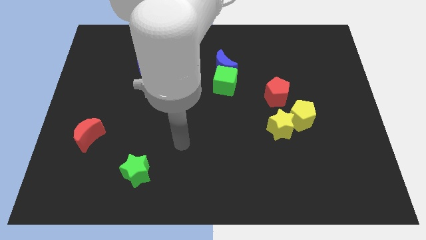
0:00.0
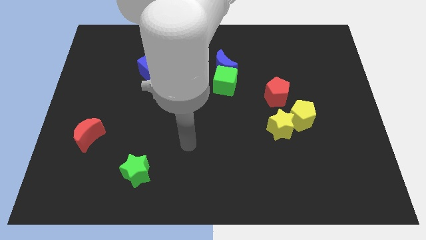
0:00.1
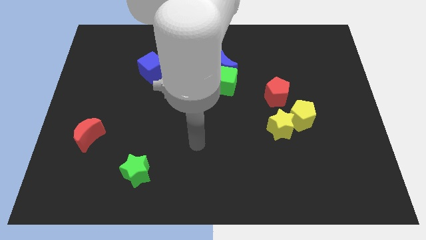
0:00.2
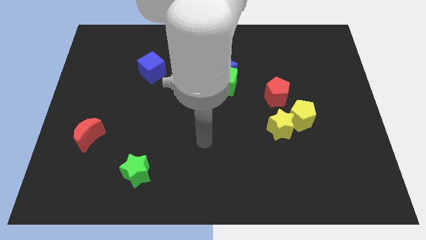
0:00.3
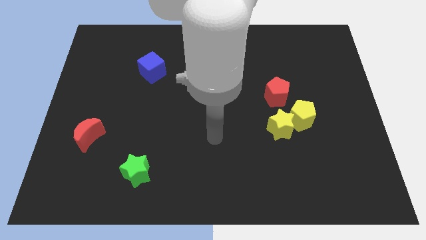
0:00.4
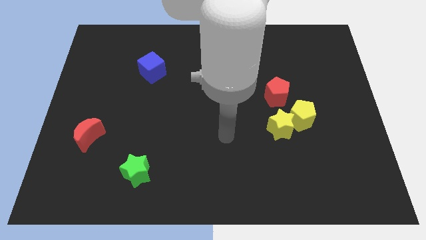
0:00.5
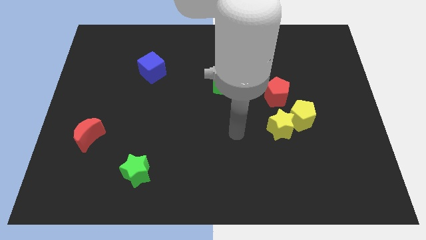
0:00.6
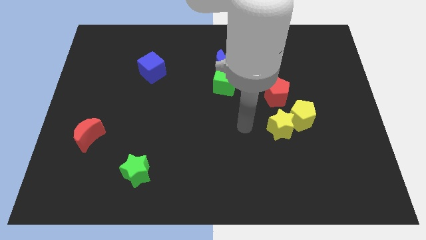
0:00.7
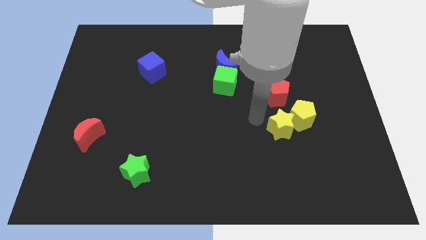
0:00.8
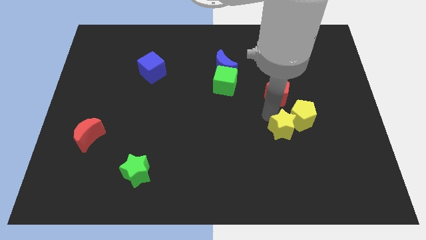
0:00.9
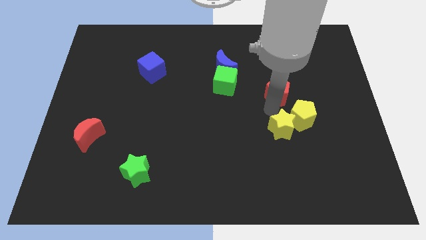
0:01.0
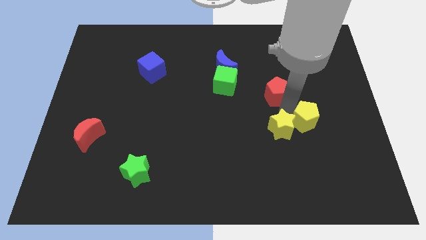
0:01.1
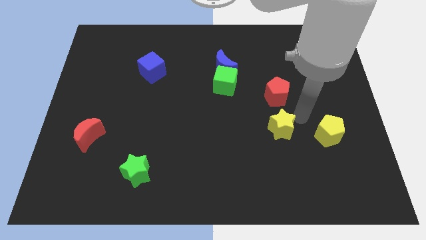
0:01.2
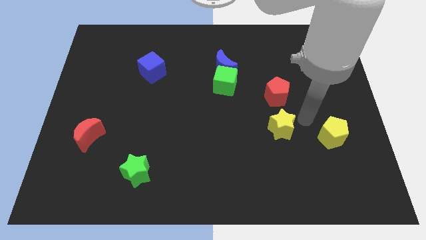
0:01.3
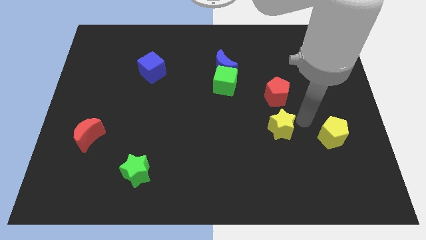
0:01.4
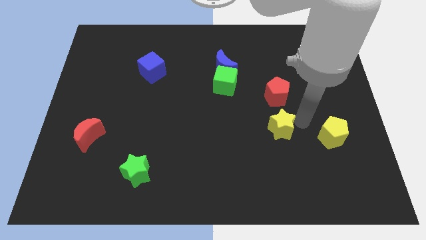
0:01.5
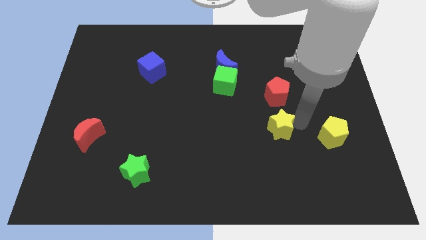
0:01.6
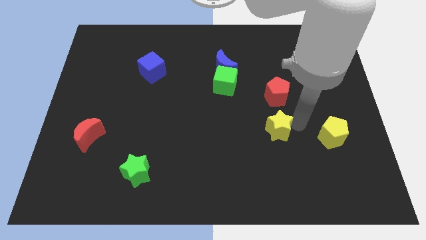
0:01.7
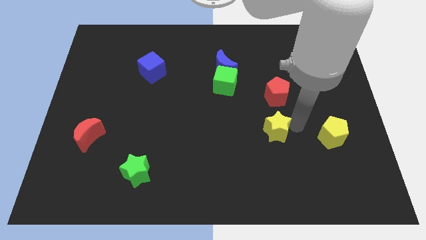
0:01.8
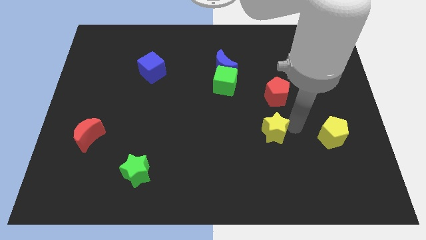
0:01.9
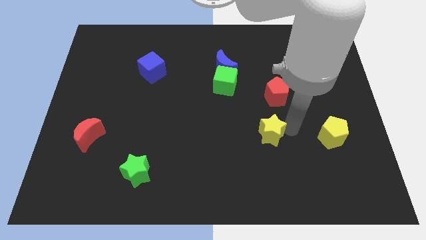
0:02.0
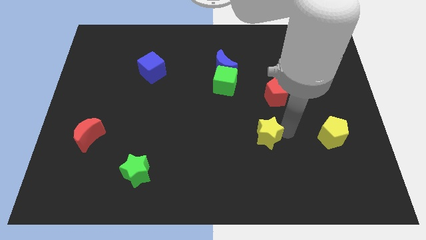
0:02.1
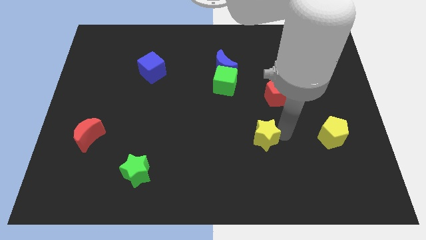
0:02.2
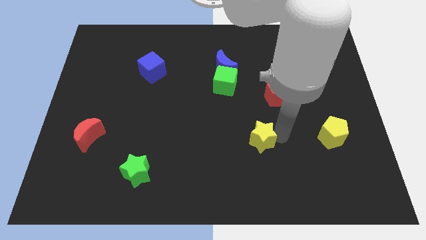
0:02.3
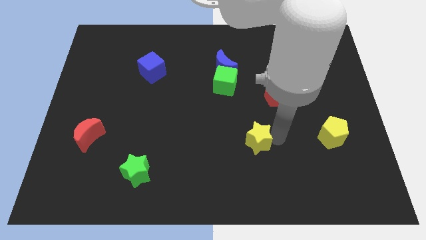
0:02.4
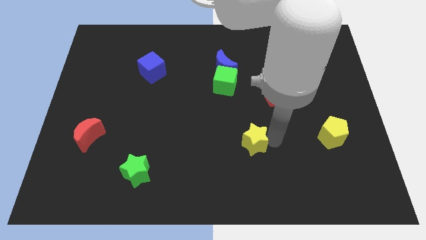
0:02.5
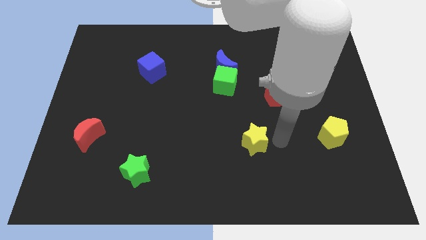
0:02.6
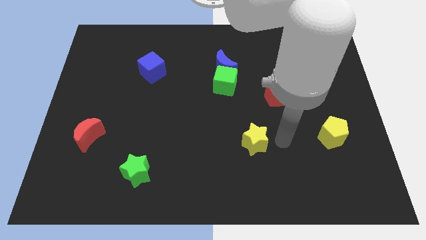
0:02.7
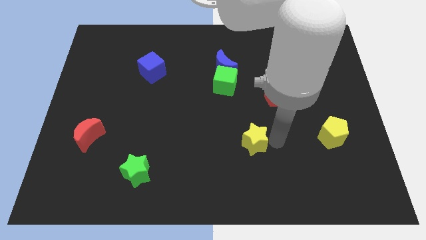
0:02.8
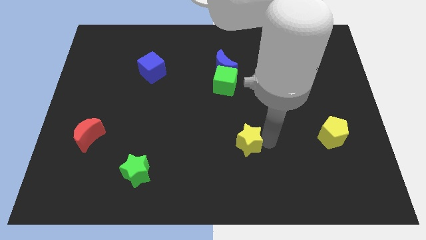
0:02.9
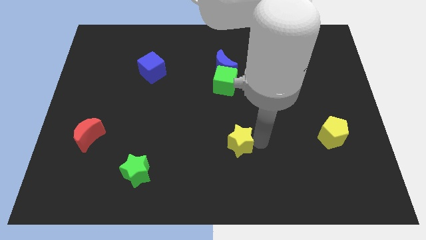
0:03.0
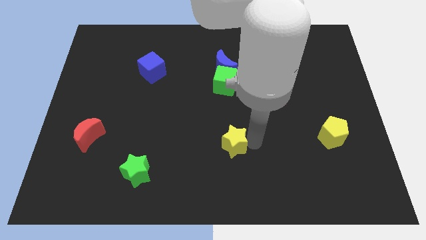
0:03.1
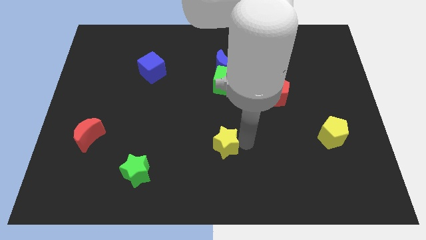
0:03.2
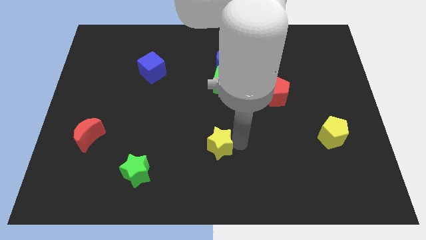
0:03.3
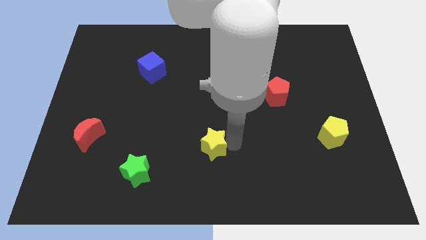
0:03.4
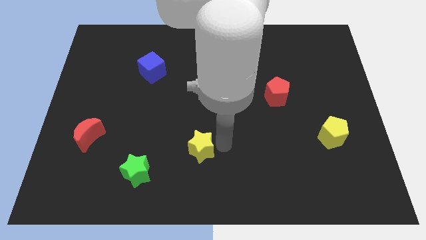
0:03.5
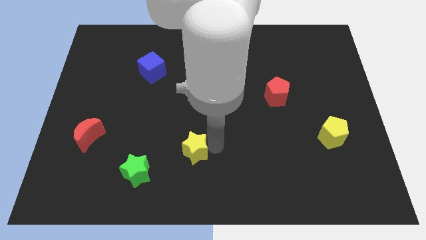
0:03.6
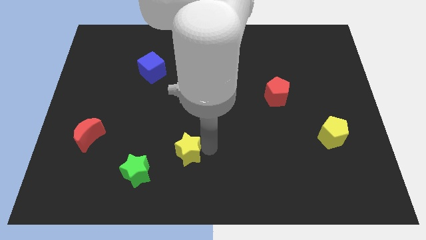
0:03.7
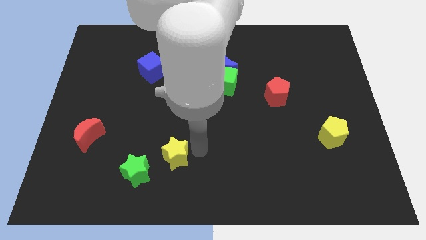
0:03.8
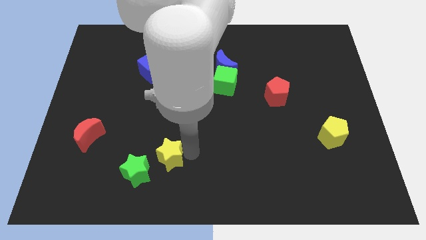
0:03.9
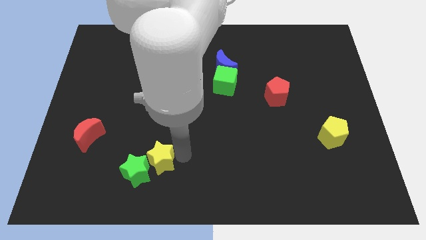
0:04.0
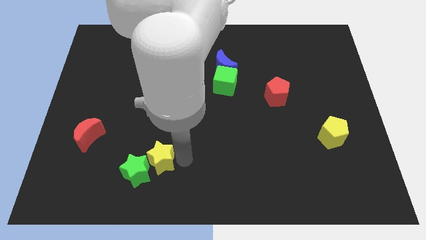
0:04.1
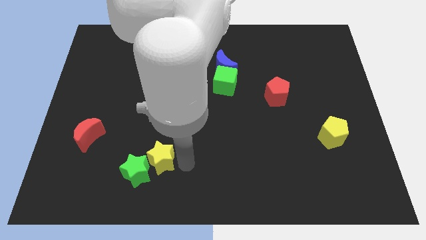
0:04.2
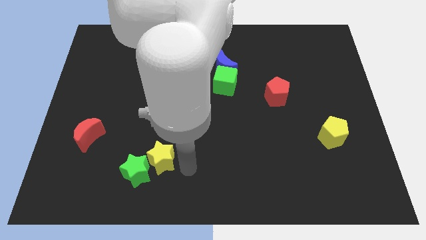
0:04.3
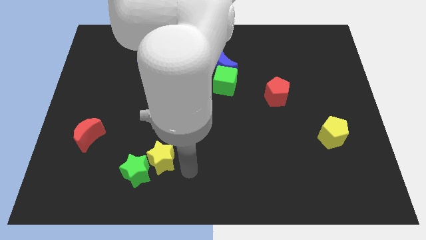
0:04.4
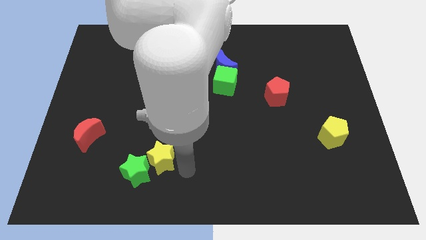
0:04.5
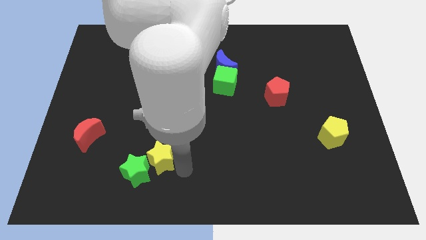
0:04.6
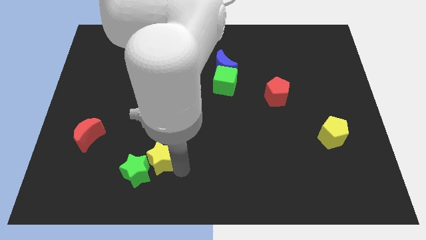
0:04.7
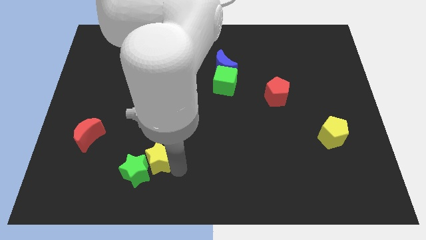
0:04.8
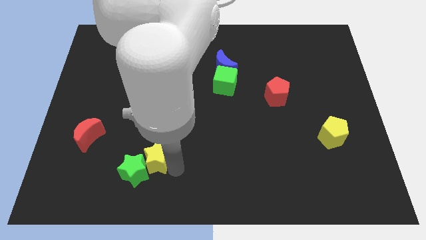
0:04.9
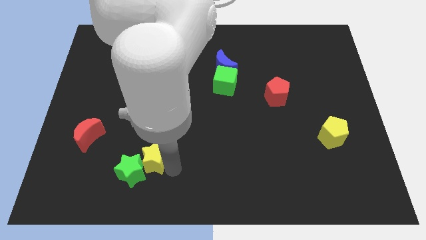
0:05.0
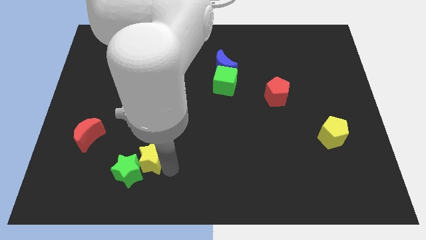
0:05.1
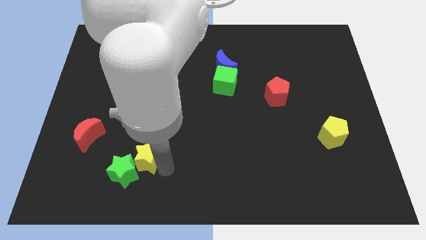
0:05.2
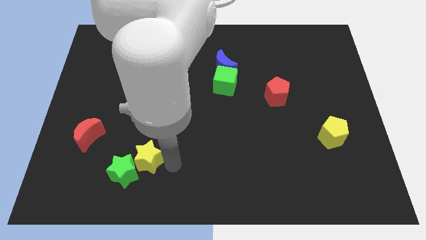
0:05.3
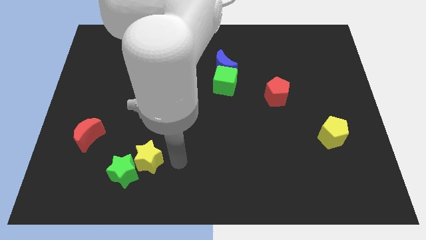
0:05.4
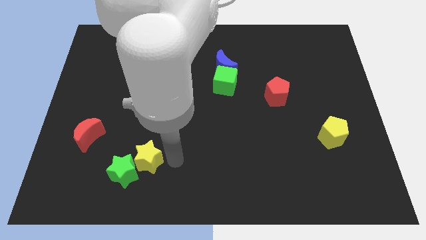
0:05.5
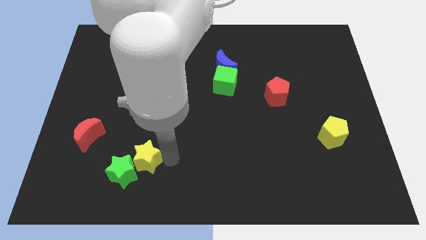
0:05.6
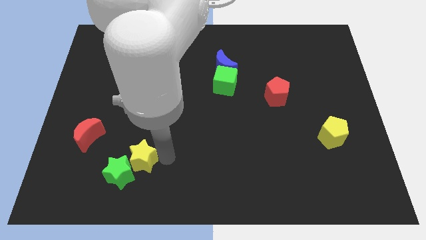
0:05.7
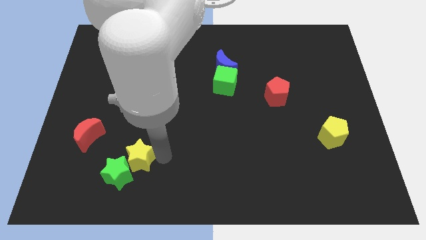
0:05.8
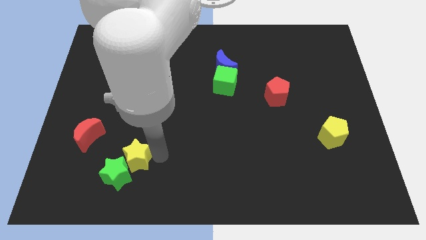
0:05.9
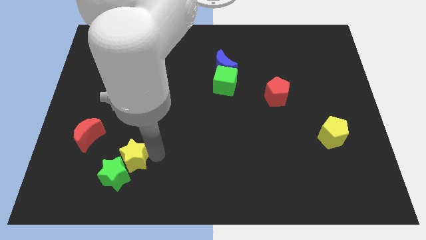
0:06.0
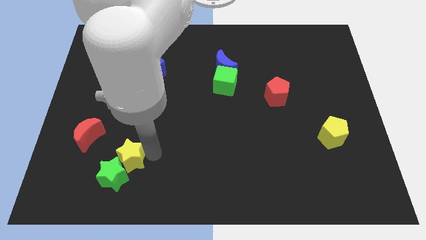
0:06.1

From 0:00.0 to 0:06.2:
move the yellow star to the bottom right side of the red moon

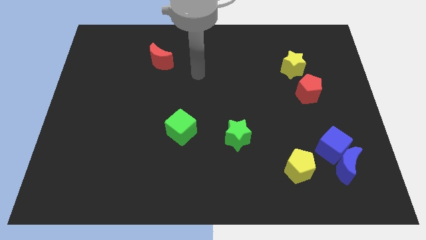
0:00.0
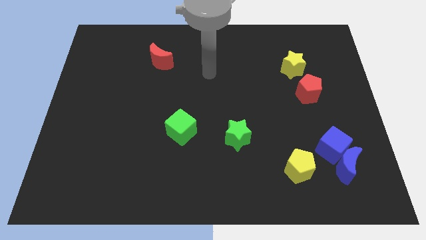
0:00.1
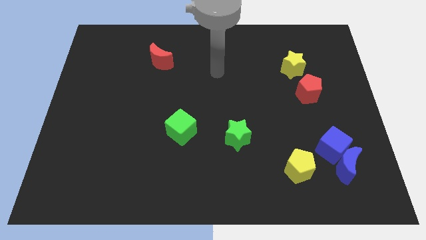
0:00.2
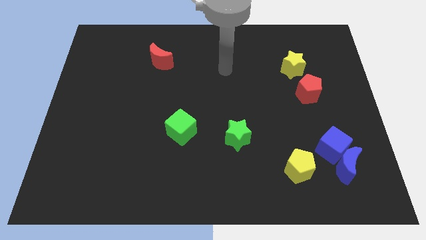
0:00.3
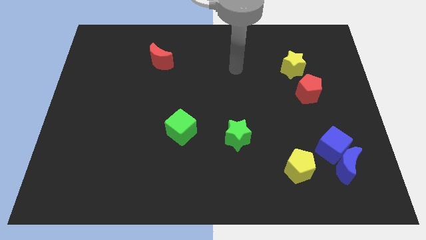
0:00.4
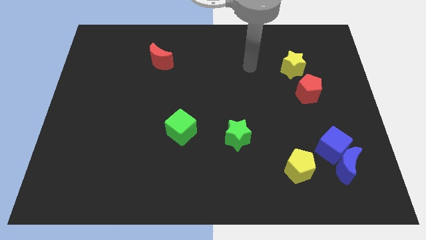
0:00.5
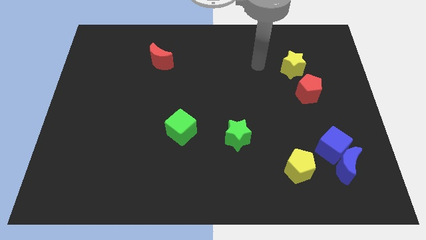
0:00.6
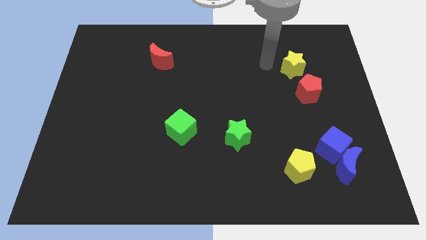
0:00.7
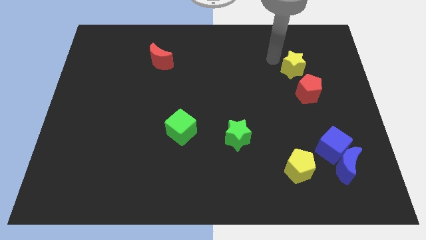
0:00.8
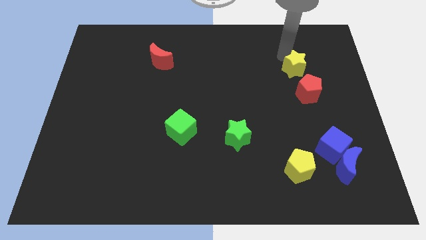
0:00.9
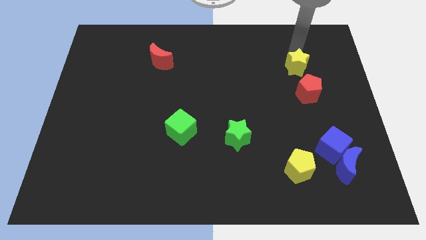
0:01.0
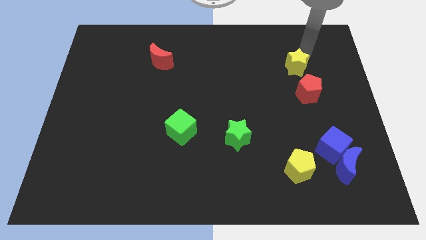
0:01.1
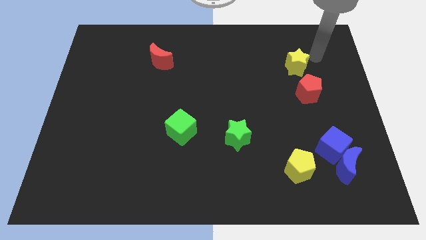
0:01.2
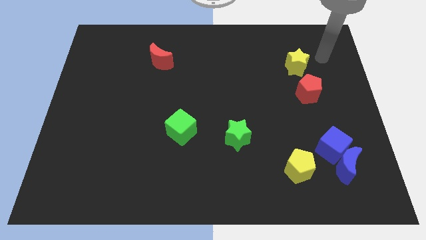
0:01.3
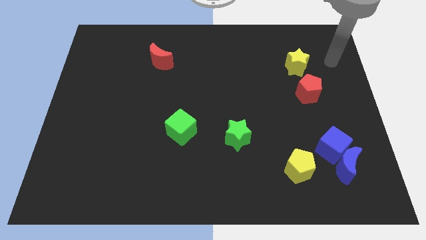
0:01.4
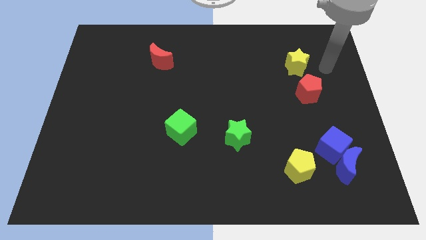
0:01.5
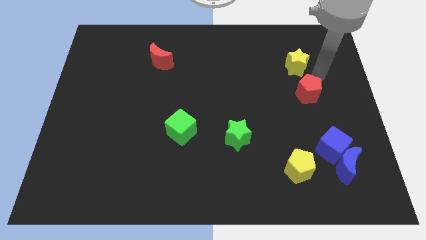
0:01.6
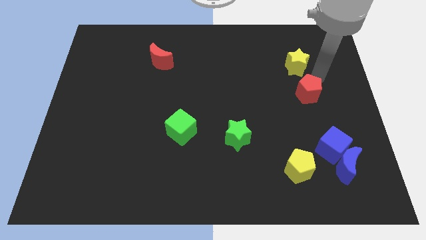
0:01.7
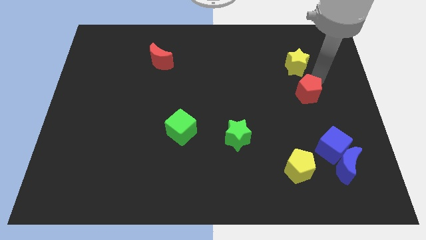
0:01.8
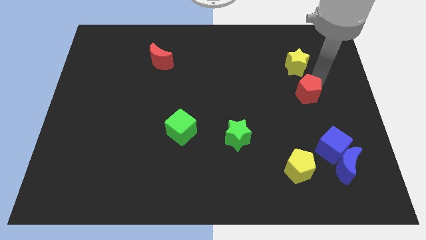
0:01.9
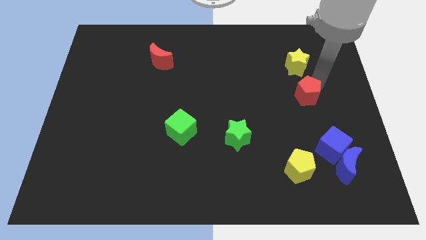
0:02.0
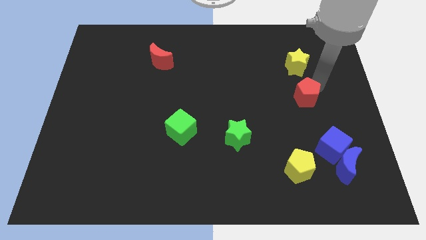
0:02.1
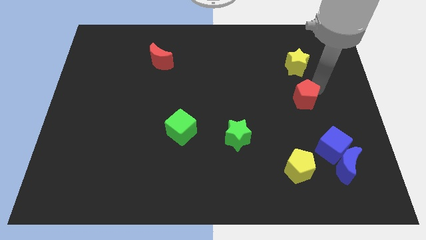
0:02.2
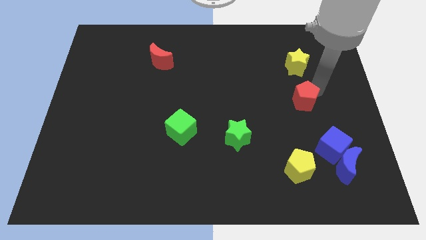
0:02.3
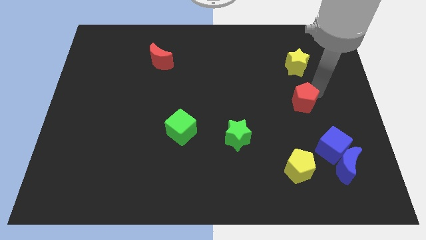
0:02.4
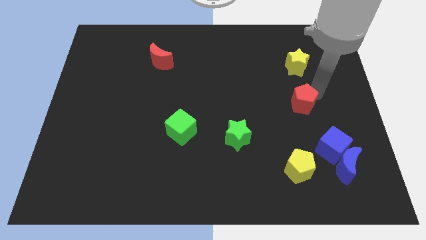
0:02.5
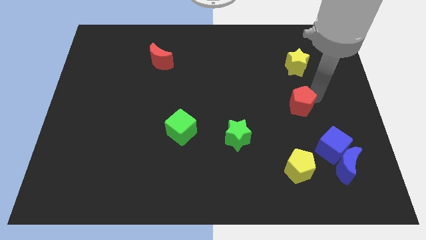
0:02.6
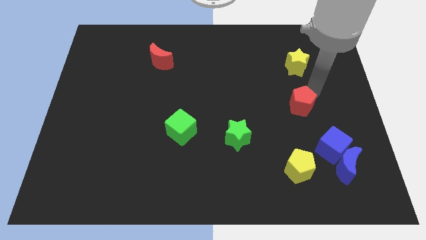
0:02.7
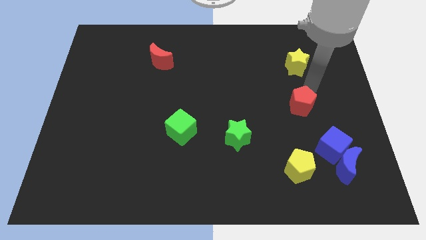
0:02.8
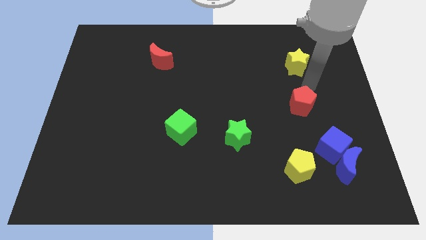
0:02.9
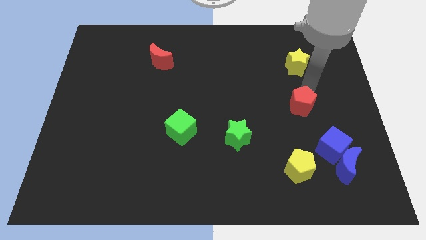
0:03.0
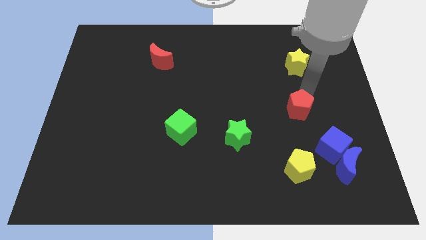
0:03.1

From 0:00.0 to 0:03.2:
move the red pentagon to the top of the yellow pentagon
